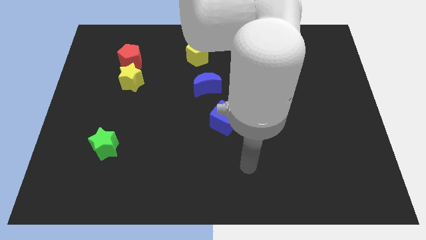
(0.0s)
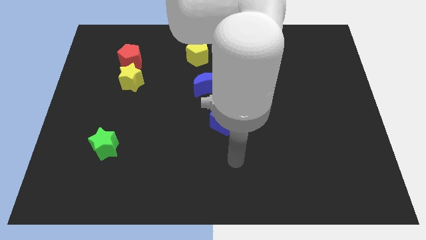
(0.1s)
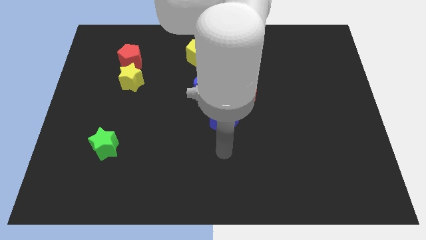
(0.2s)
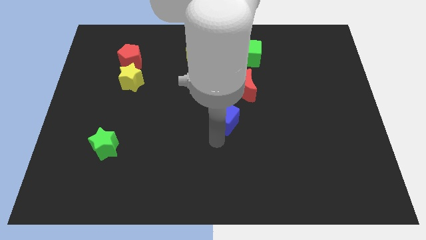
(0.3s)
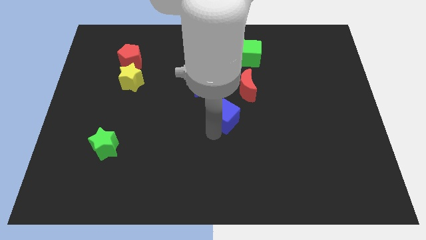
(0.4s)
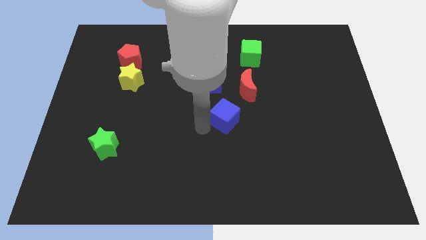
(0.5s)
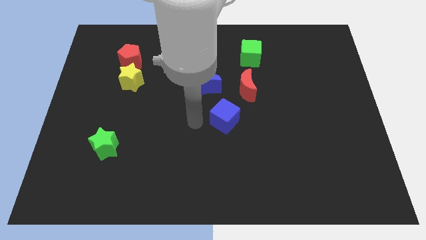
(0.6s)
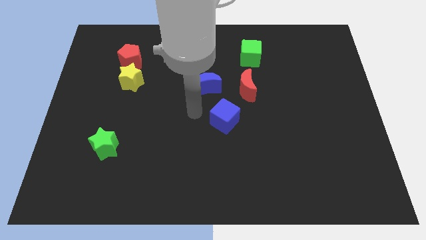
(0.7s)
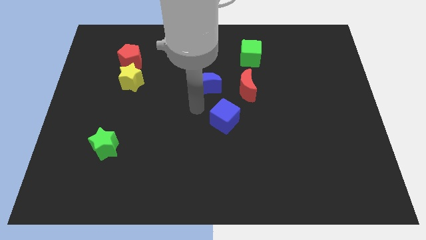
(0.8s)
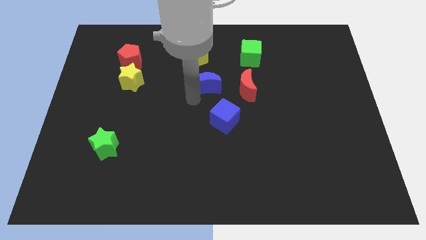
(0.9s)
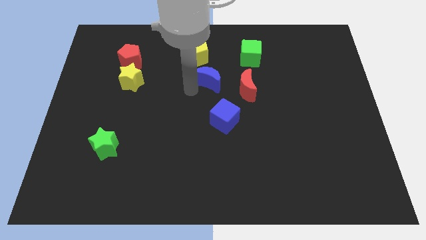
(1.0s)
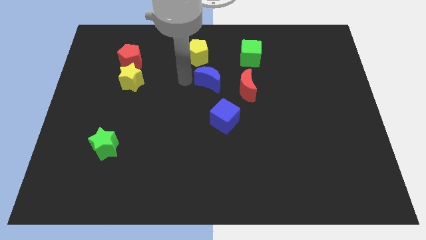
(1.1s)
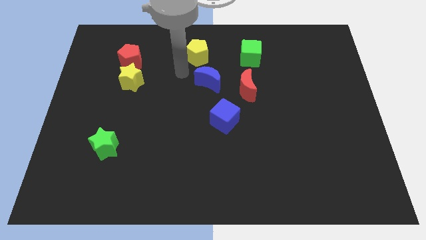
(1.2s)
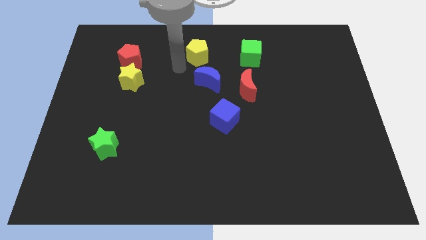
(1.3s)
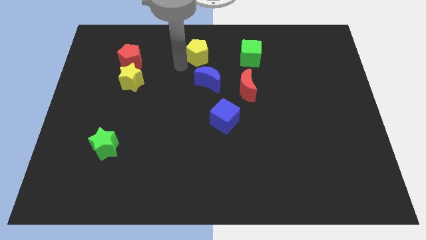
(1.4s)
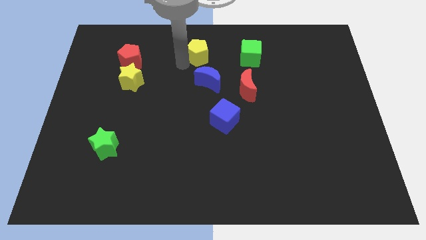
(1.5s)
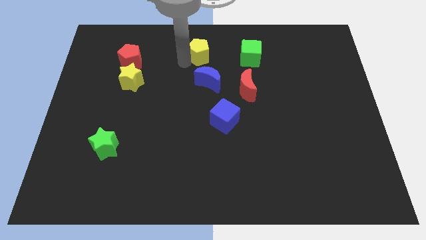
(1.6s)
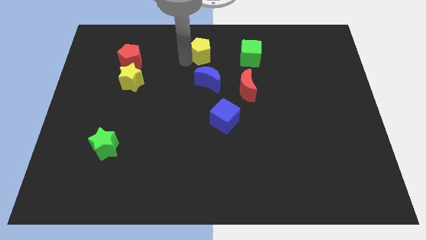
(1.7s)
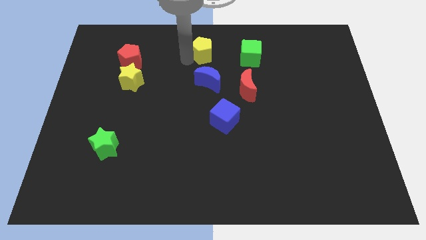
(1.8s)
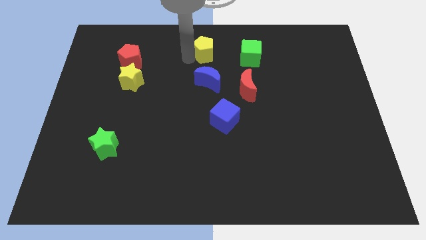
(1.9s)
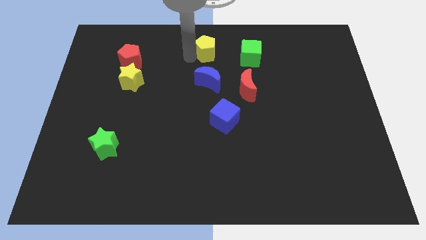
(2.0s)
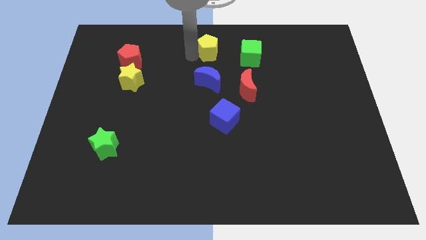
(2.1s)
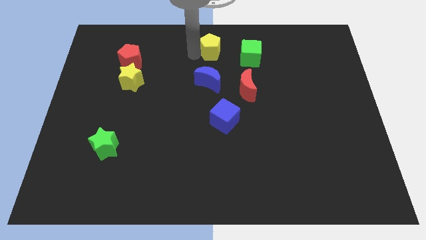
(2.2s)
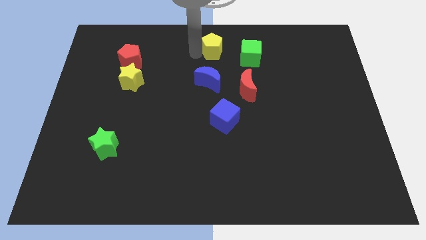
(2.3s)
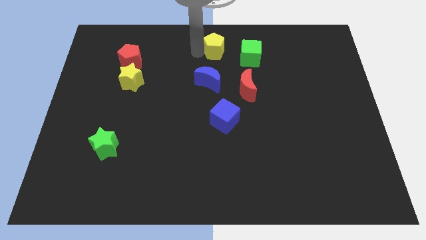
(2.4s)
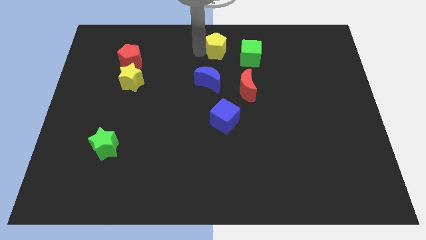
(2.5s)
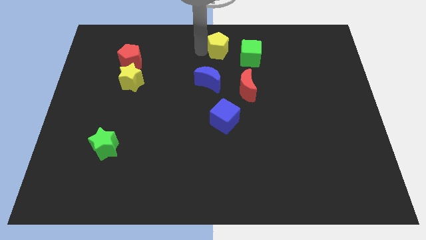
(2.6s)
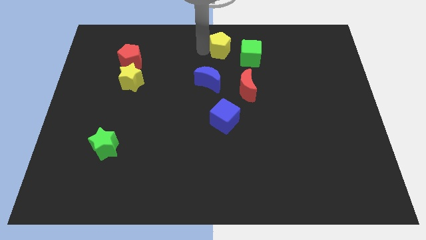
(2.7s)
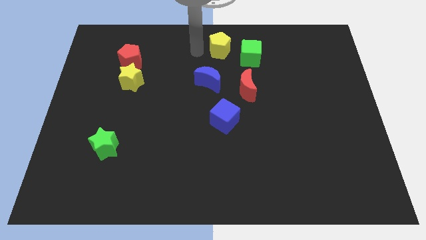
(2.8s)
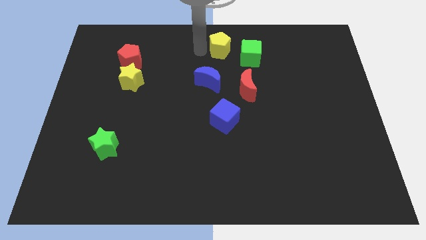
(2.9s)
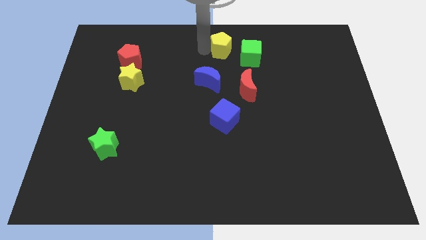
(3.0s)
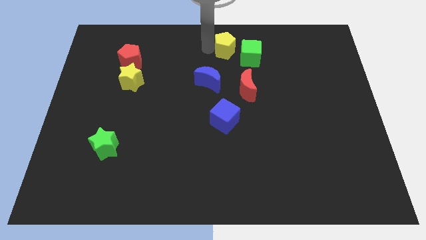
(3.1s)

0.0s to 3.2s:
push the yellow pentagon to the right a bit

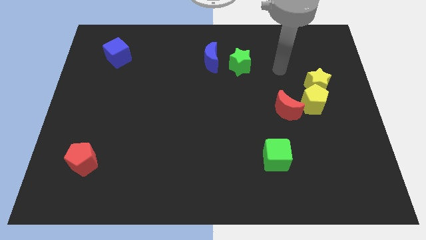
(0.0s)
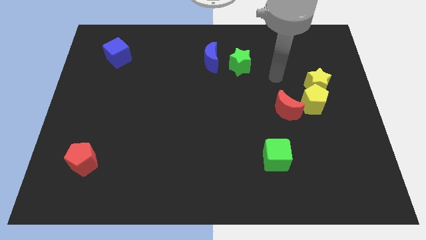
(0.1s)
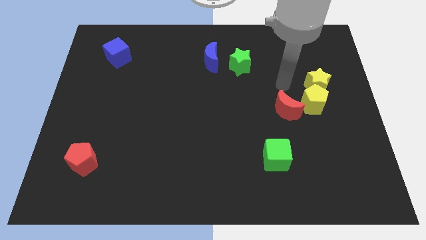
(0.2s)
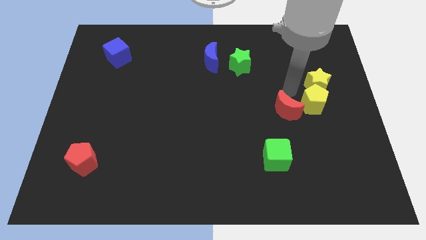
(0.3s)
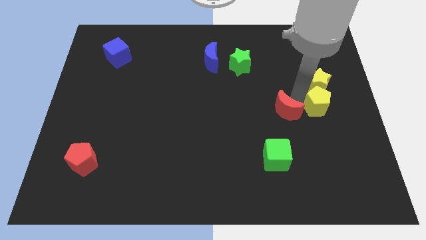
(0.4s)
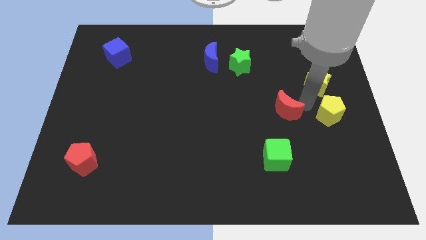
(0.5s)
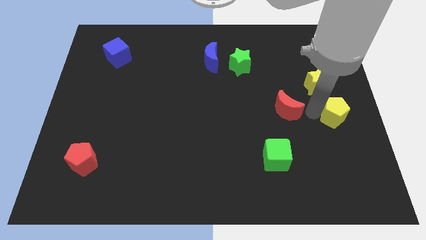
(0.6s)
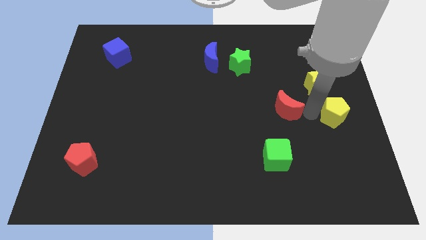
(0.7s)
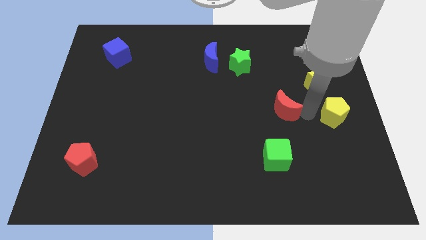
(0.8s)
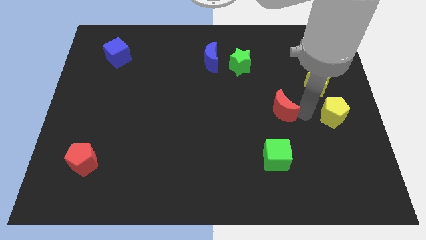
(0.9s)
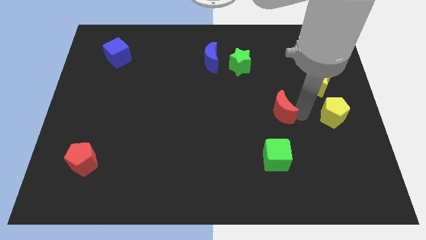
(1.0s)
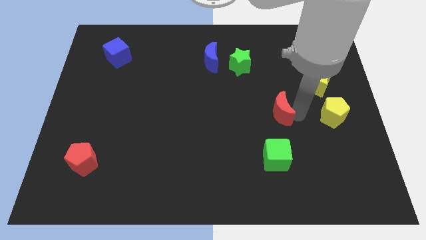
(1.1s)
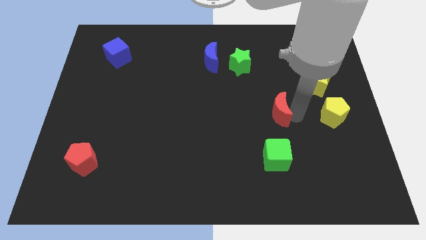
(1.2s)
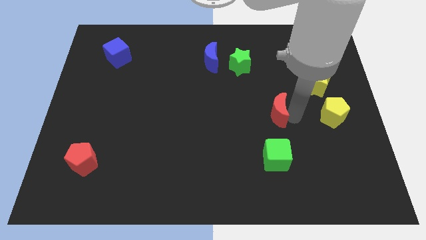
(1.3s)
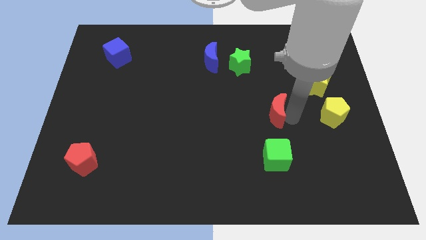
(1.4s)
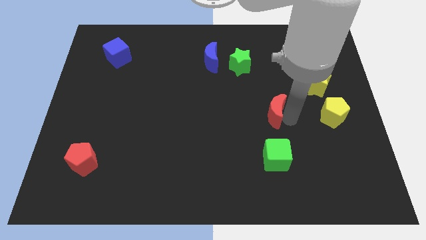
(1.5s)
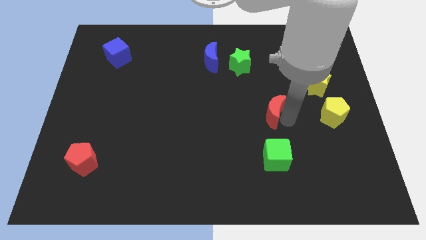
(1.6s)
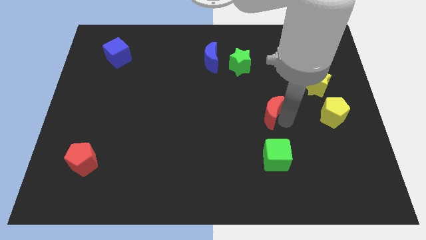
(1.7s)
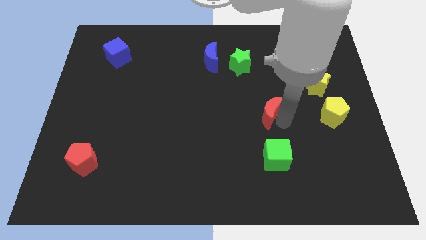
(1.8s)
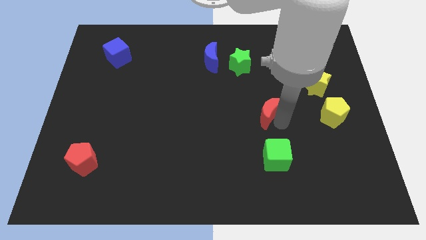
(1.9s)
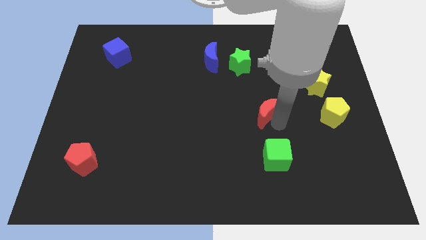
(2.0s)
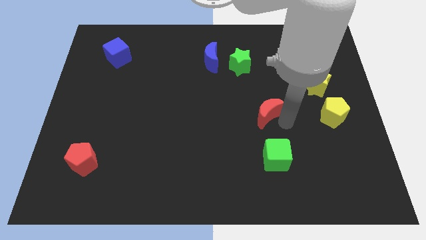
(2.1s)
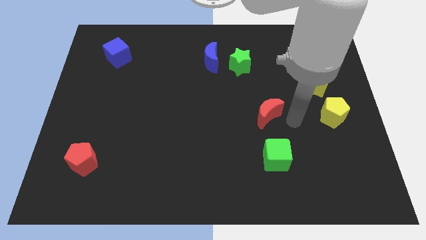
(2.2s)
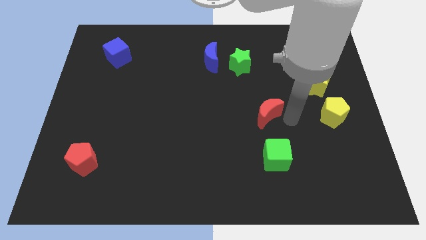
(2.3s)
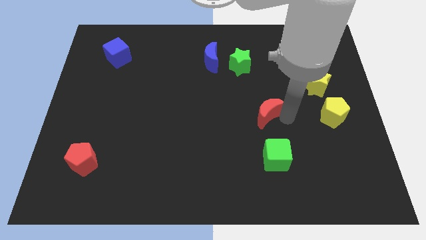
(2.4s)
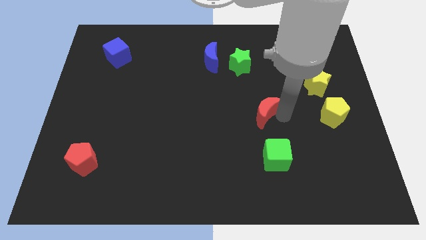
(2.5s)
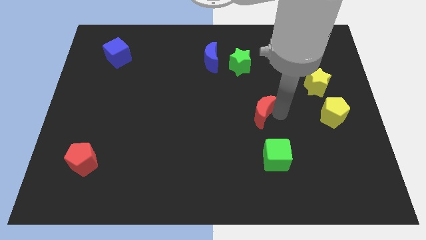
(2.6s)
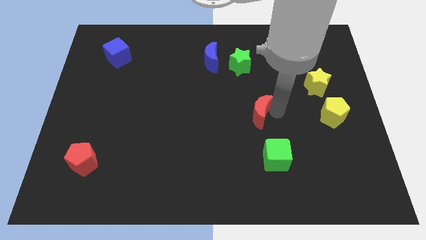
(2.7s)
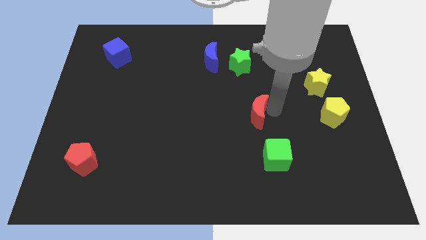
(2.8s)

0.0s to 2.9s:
slide the red moon left slightly

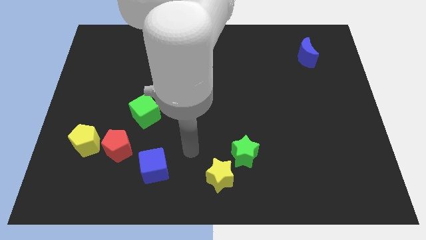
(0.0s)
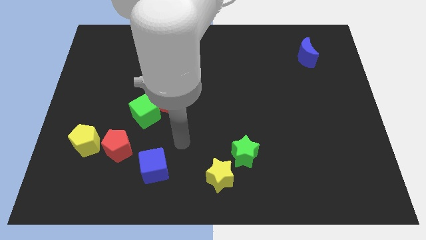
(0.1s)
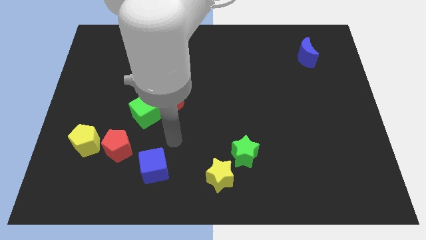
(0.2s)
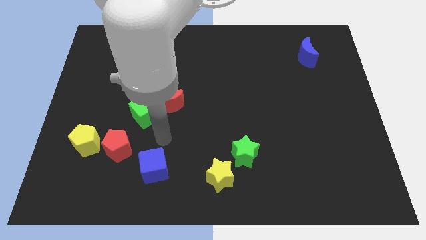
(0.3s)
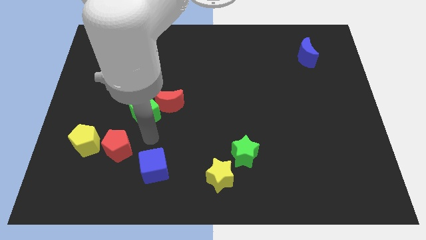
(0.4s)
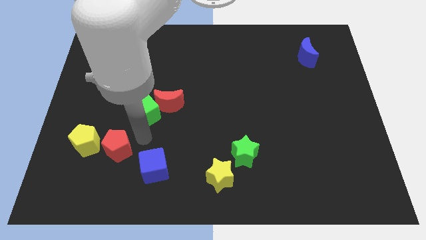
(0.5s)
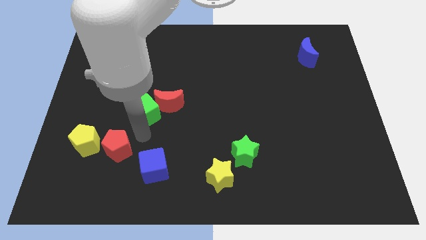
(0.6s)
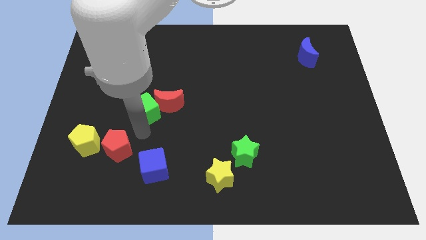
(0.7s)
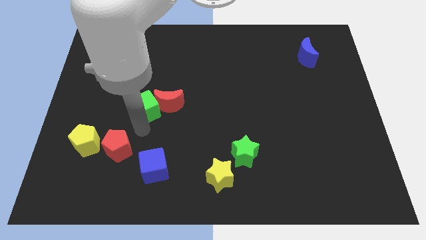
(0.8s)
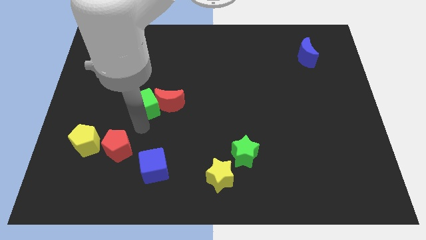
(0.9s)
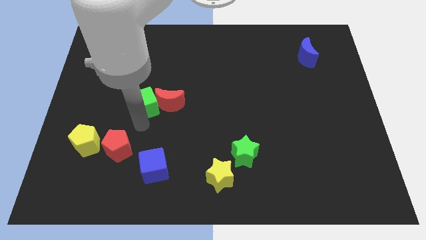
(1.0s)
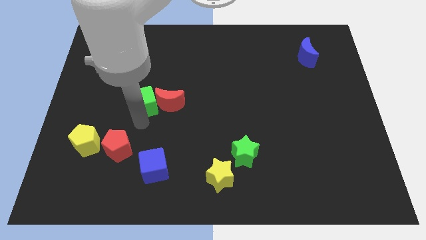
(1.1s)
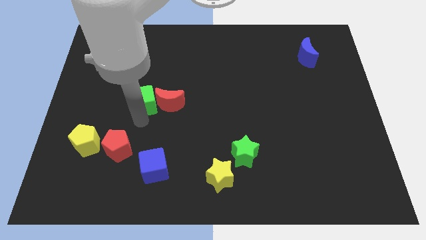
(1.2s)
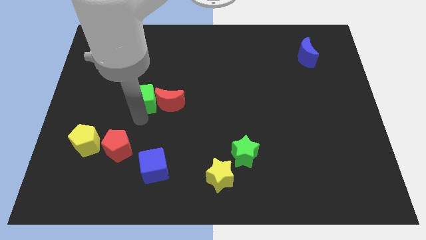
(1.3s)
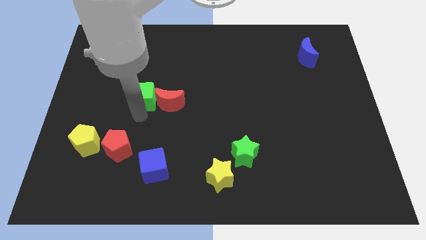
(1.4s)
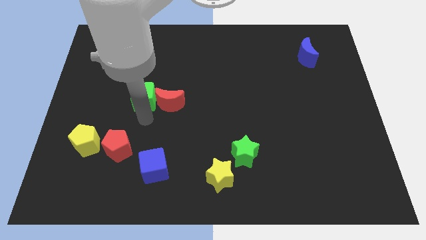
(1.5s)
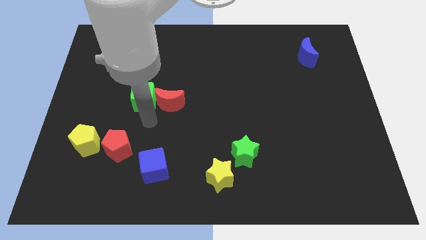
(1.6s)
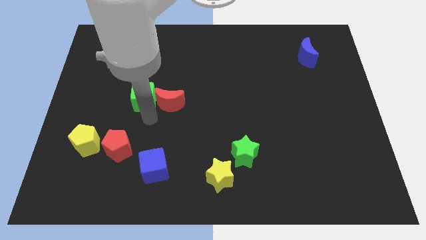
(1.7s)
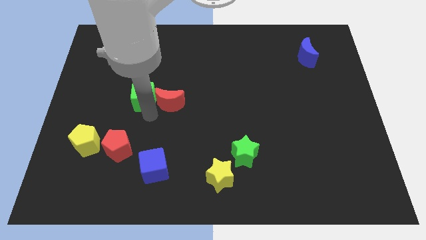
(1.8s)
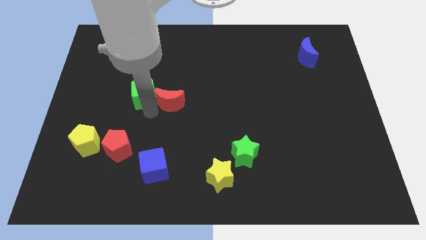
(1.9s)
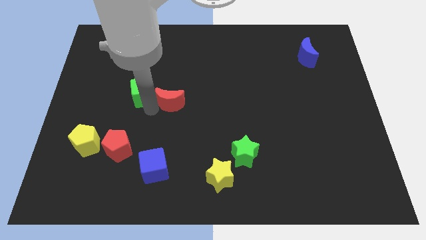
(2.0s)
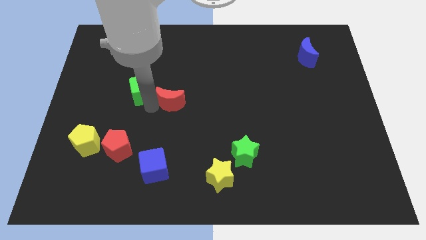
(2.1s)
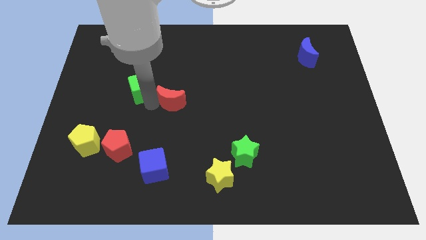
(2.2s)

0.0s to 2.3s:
slide the green cube up somewhat
